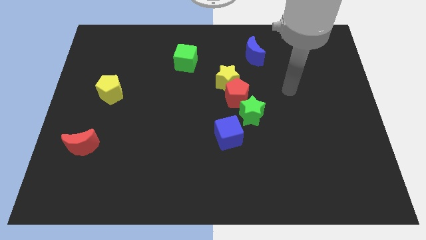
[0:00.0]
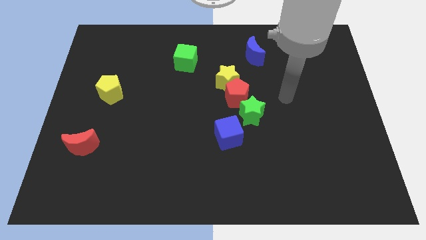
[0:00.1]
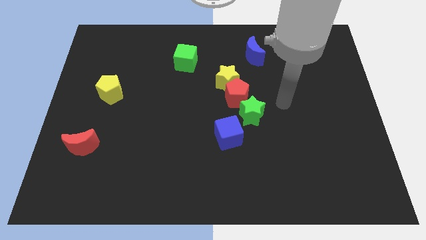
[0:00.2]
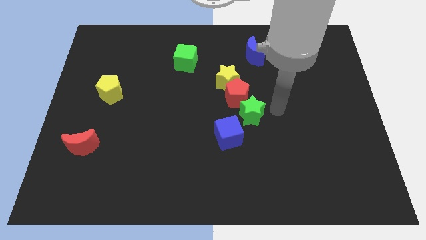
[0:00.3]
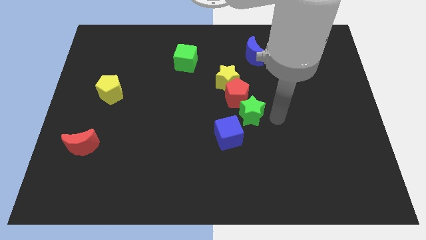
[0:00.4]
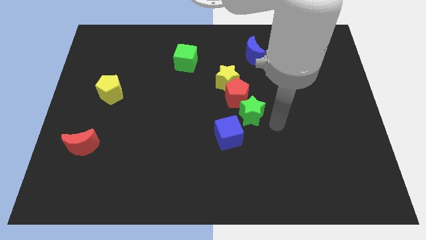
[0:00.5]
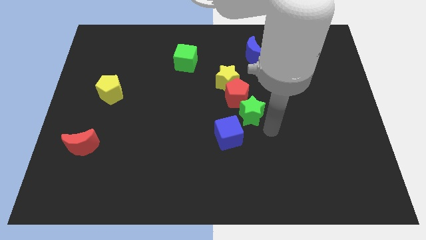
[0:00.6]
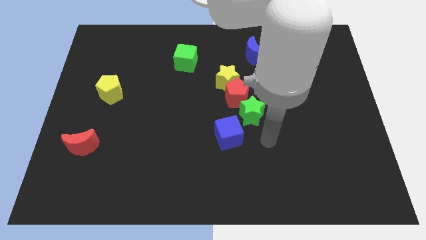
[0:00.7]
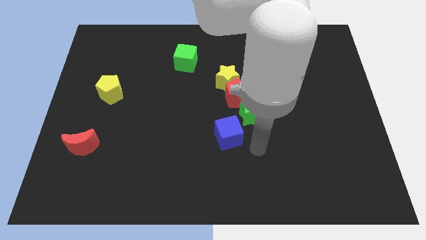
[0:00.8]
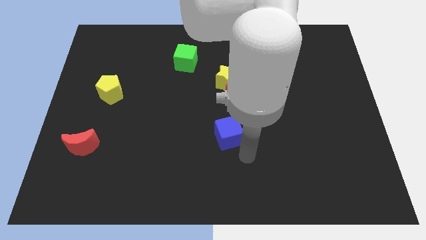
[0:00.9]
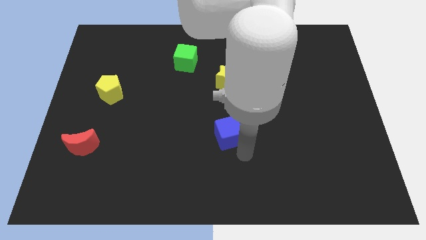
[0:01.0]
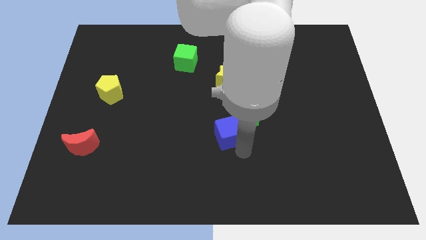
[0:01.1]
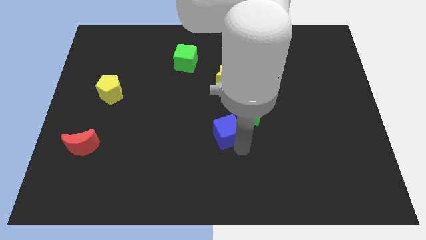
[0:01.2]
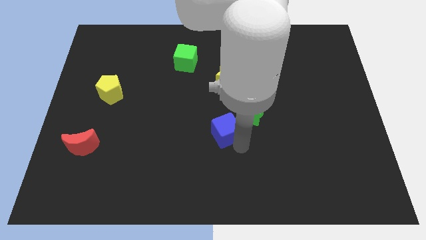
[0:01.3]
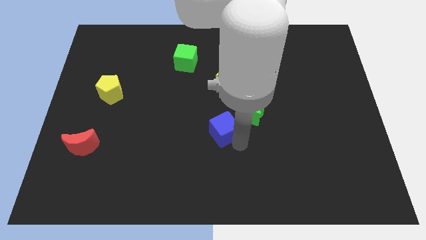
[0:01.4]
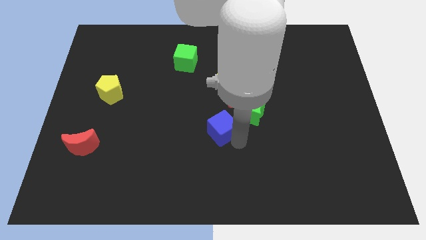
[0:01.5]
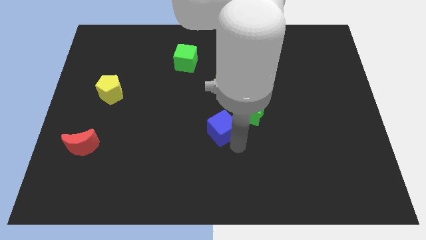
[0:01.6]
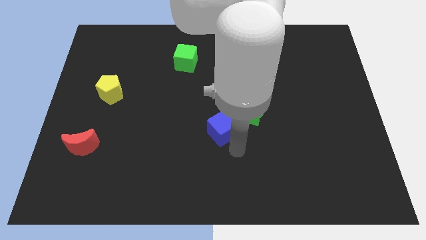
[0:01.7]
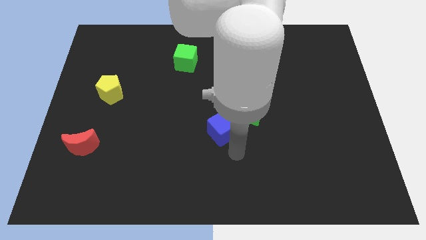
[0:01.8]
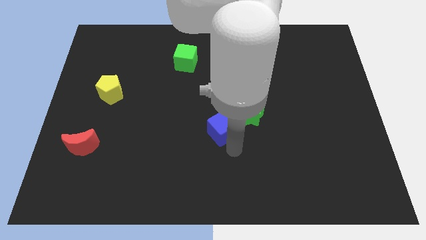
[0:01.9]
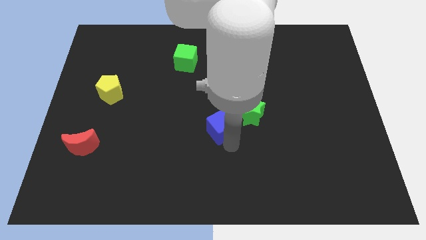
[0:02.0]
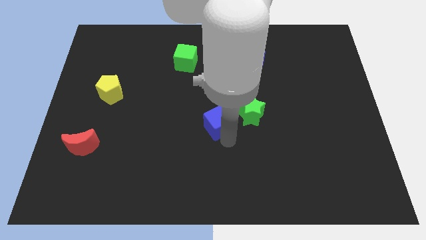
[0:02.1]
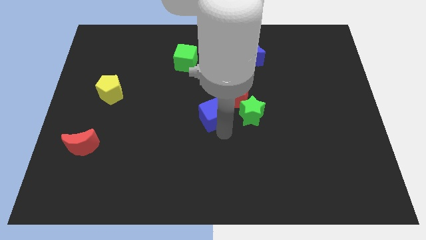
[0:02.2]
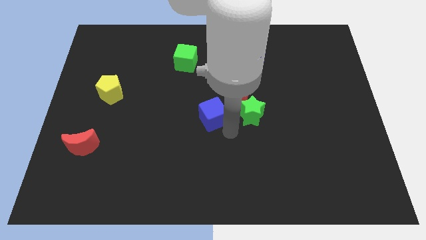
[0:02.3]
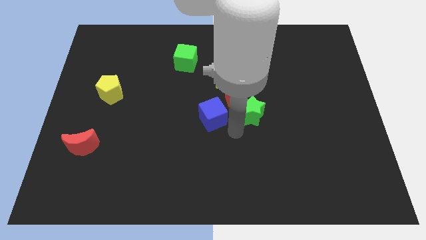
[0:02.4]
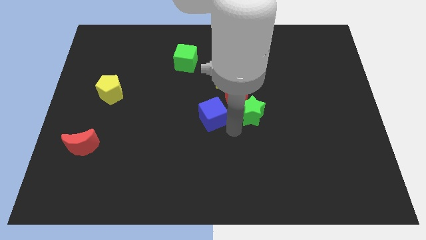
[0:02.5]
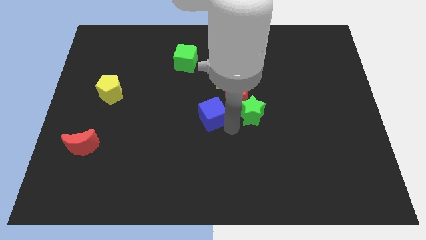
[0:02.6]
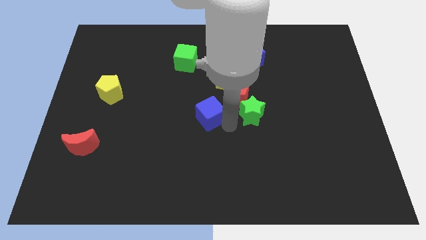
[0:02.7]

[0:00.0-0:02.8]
slide the blue cube a little bit diagonally up and left

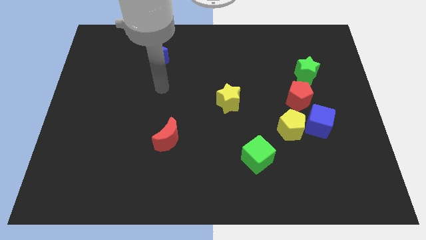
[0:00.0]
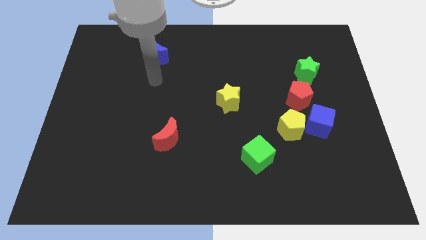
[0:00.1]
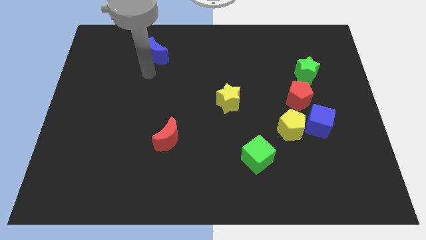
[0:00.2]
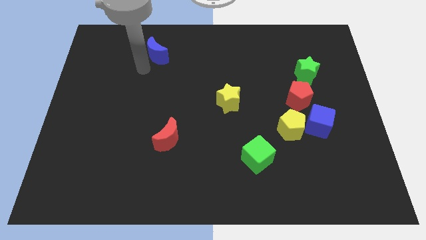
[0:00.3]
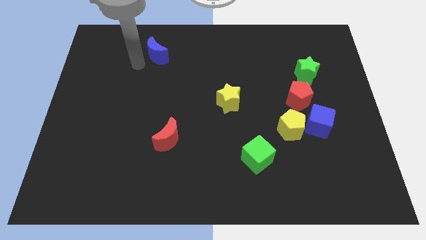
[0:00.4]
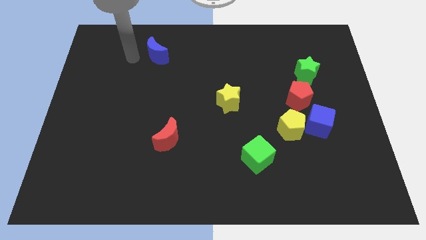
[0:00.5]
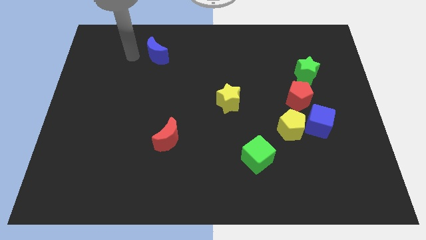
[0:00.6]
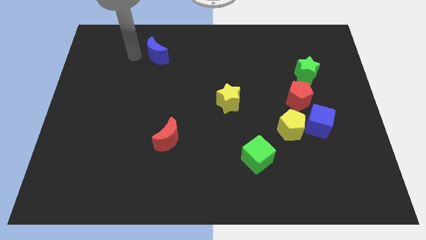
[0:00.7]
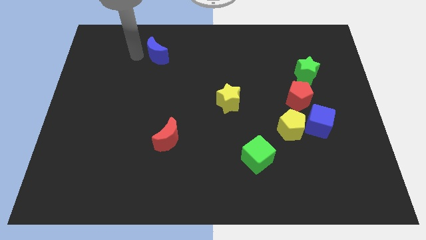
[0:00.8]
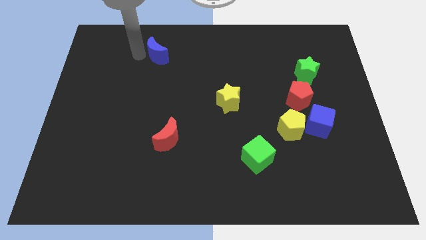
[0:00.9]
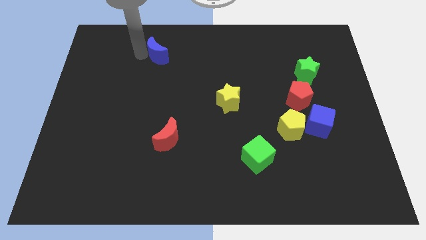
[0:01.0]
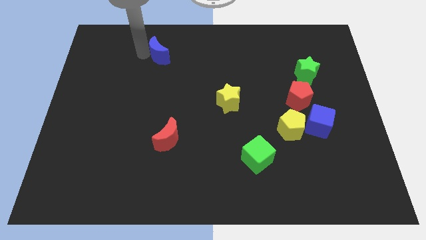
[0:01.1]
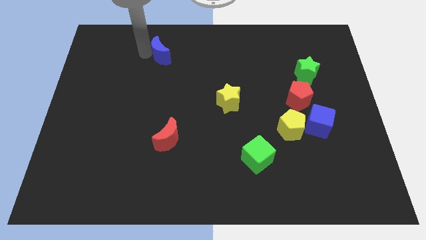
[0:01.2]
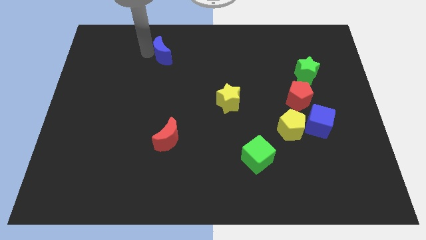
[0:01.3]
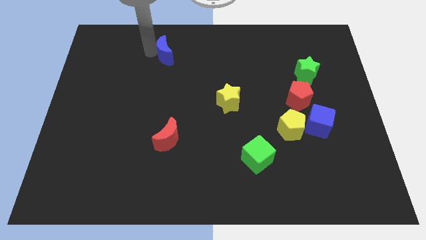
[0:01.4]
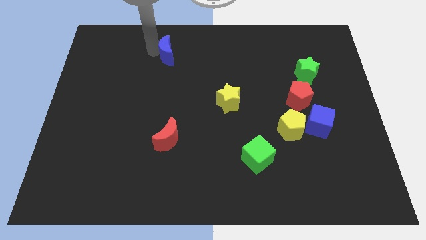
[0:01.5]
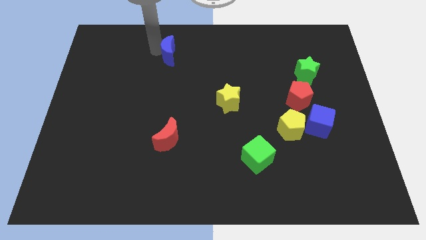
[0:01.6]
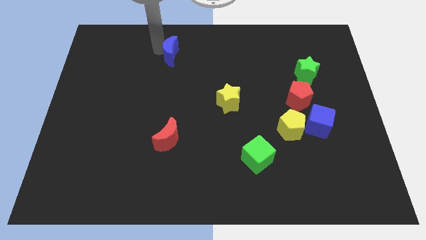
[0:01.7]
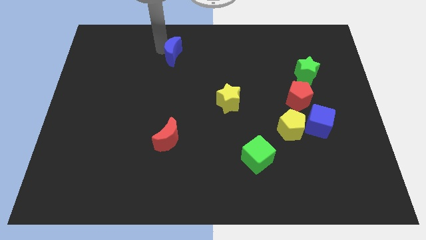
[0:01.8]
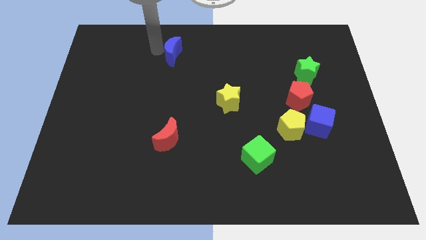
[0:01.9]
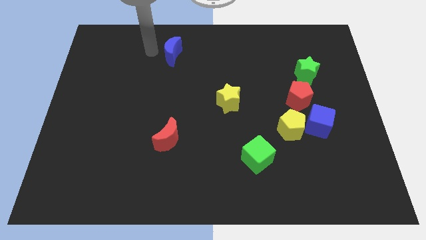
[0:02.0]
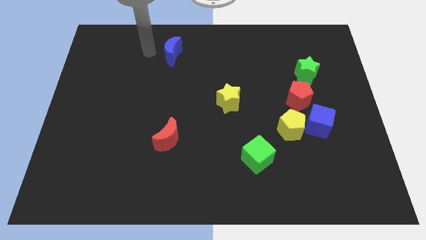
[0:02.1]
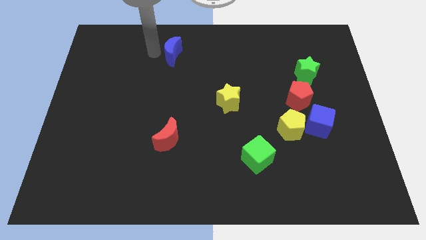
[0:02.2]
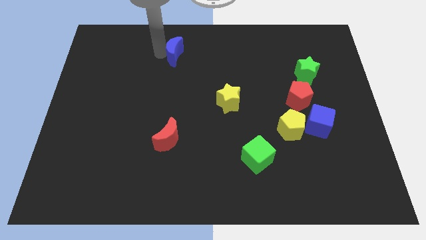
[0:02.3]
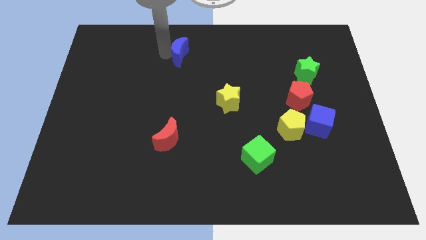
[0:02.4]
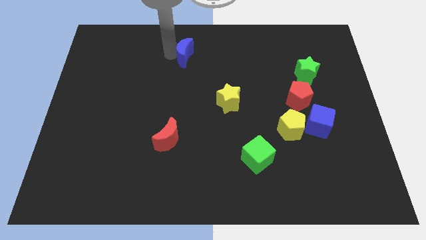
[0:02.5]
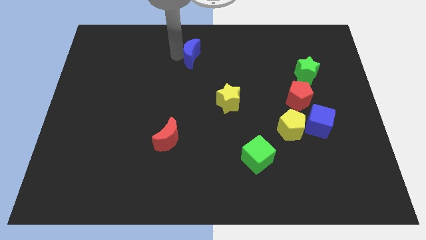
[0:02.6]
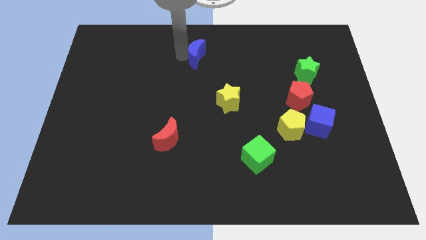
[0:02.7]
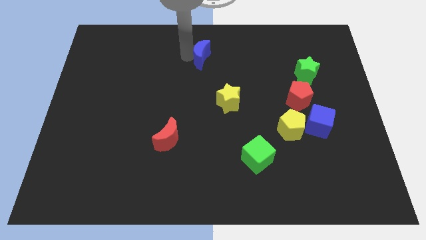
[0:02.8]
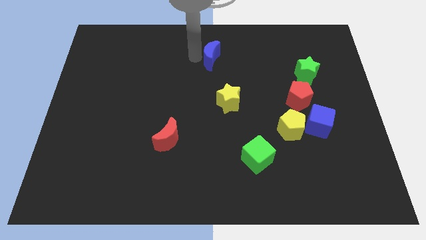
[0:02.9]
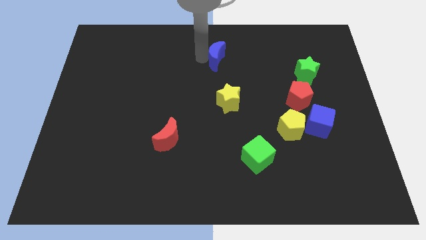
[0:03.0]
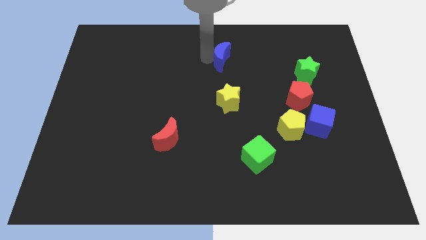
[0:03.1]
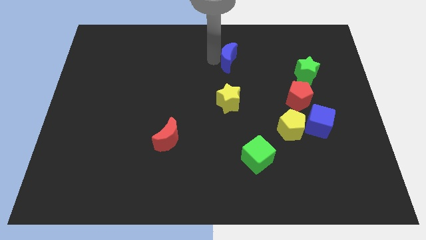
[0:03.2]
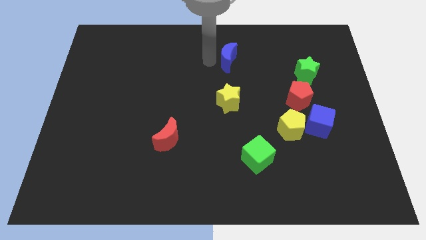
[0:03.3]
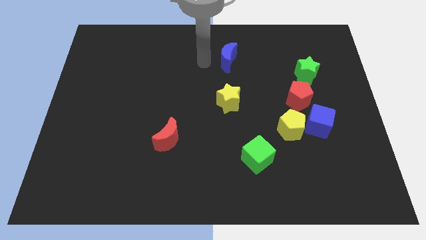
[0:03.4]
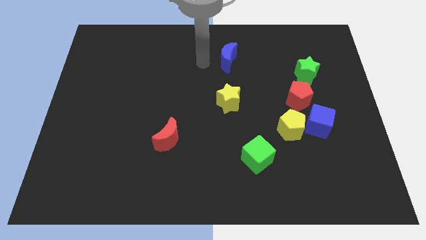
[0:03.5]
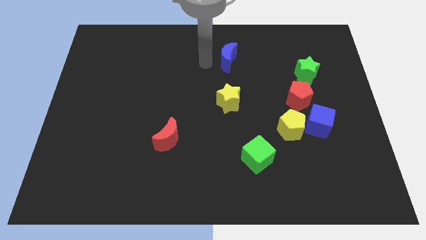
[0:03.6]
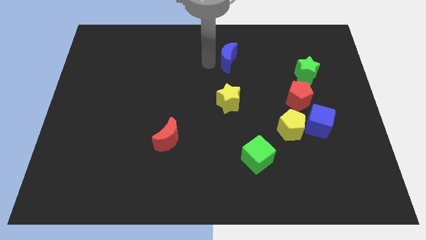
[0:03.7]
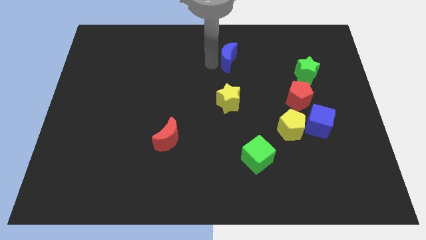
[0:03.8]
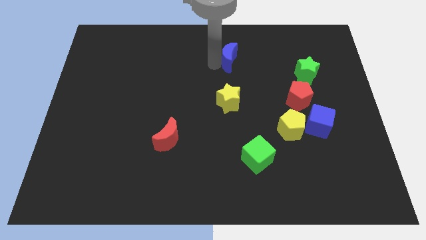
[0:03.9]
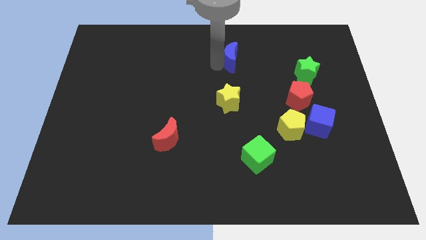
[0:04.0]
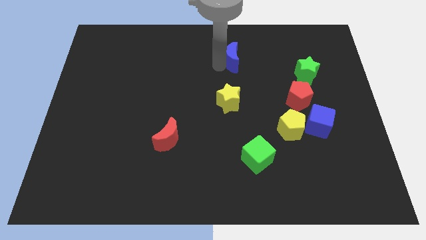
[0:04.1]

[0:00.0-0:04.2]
move the blue moon right

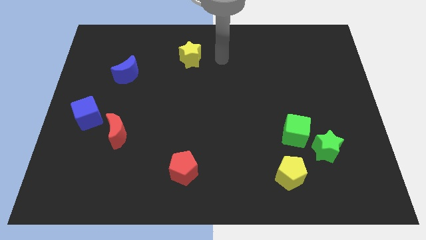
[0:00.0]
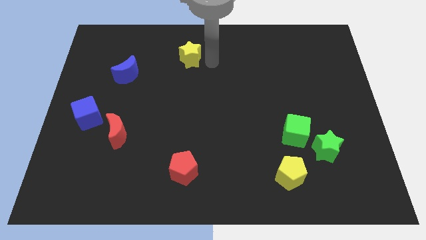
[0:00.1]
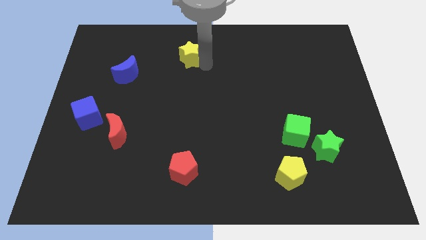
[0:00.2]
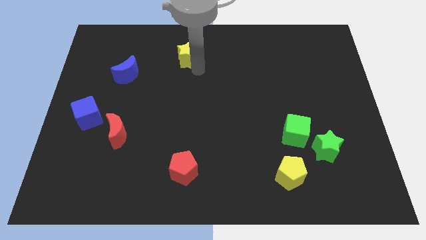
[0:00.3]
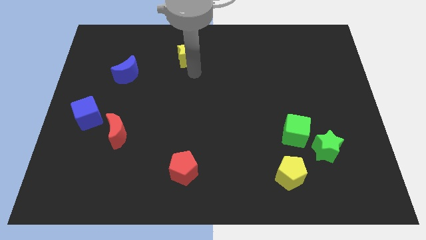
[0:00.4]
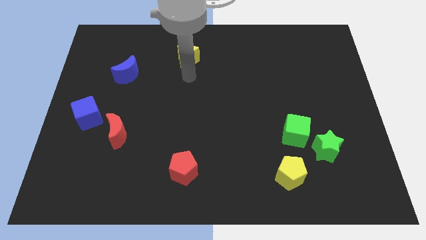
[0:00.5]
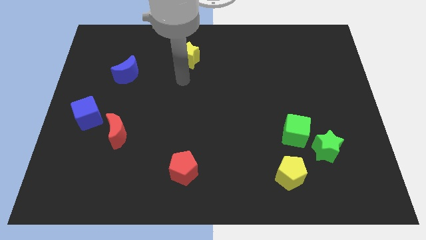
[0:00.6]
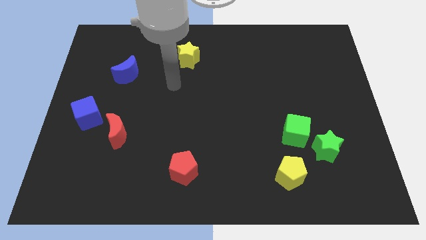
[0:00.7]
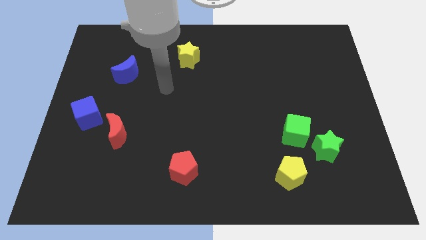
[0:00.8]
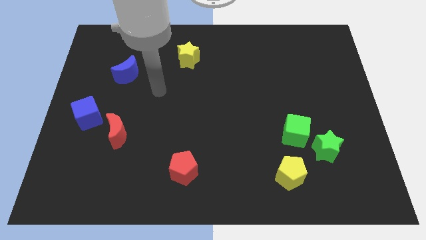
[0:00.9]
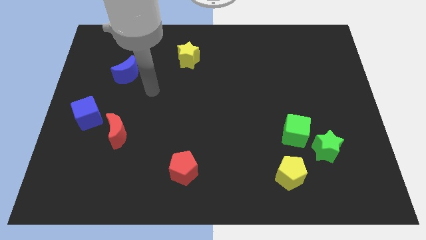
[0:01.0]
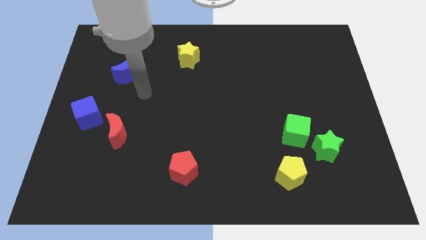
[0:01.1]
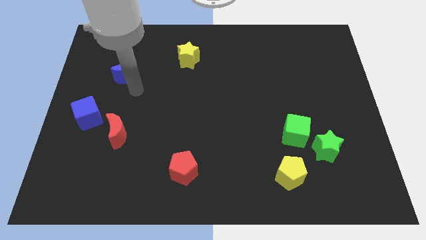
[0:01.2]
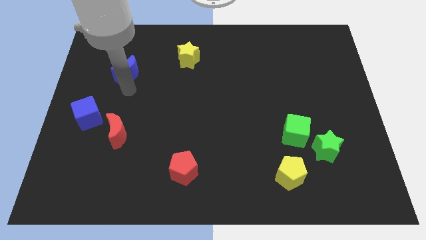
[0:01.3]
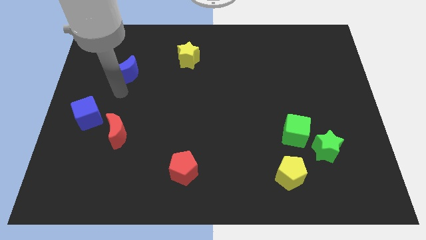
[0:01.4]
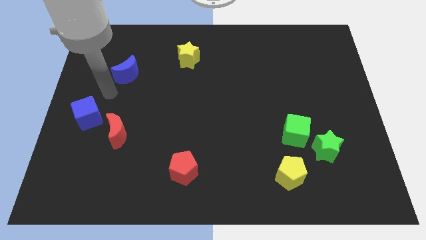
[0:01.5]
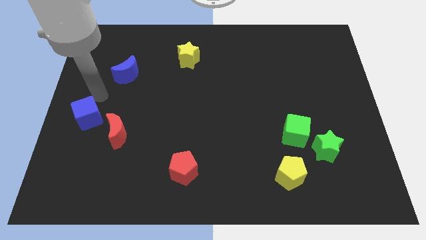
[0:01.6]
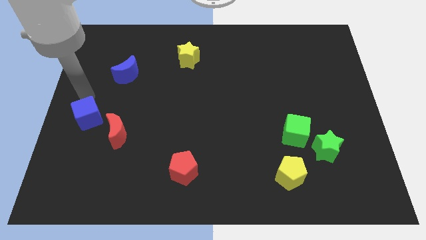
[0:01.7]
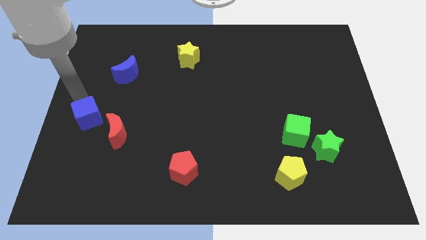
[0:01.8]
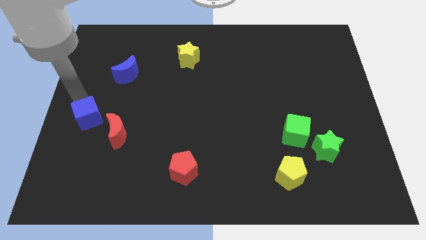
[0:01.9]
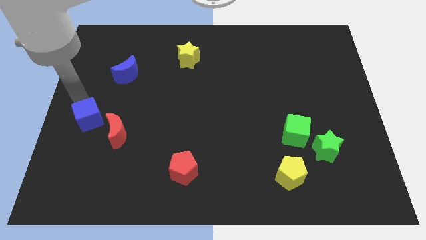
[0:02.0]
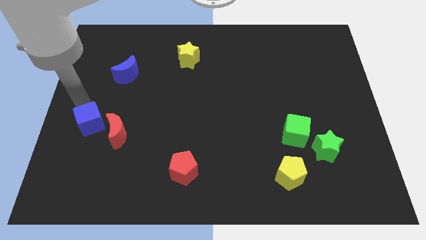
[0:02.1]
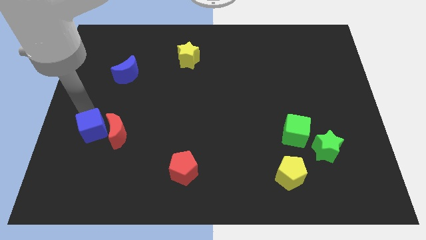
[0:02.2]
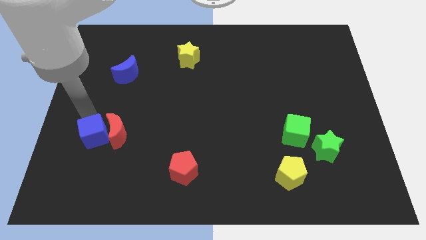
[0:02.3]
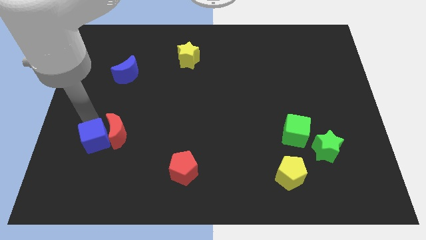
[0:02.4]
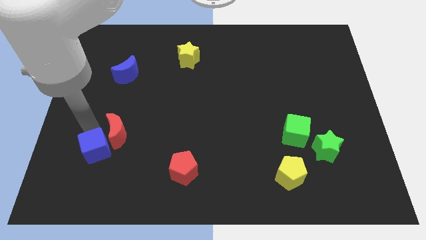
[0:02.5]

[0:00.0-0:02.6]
slightly move the blue cube downwards and then to the right
